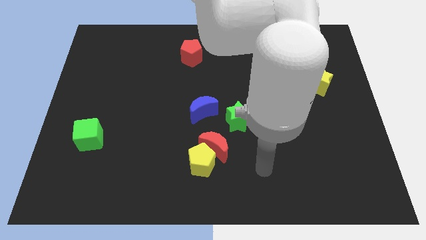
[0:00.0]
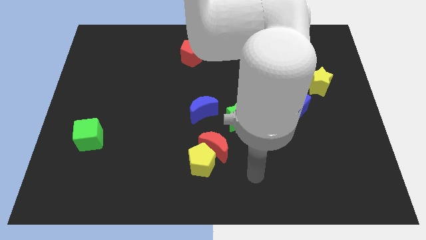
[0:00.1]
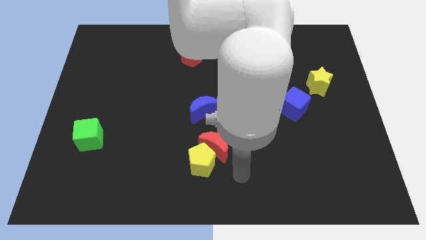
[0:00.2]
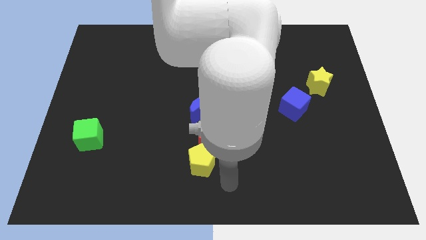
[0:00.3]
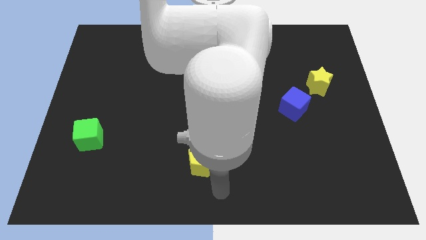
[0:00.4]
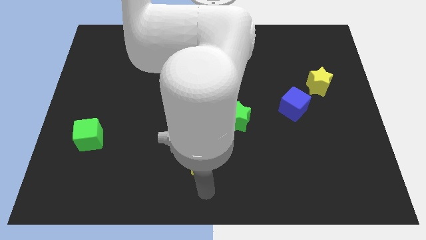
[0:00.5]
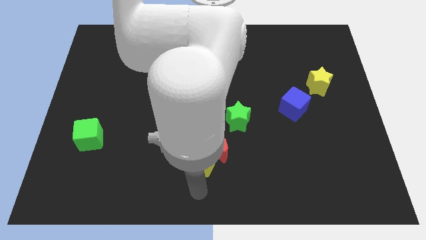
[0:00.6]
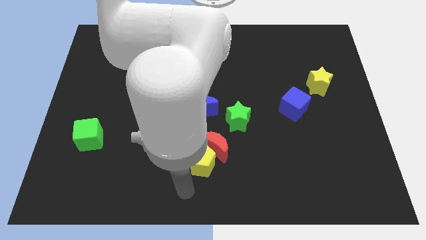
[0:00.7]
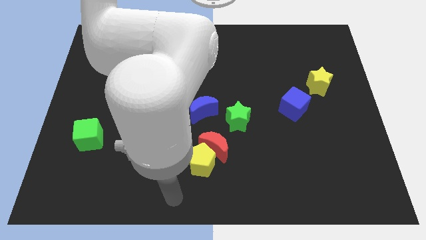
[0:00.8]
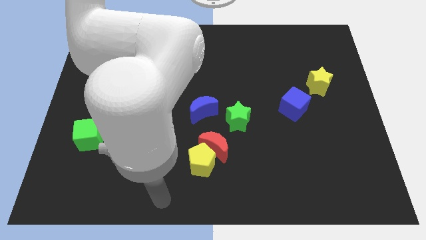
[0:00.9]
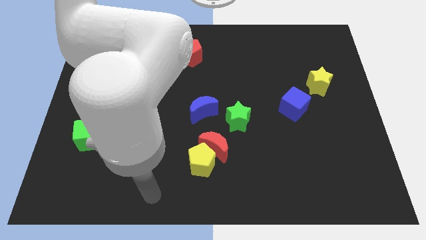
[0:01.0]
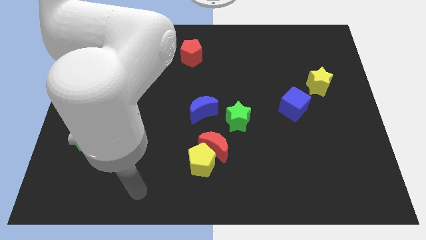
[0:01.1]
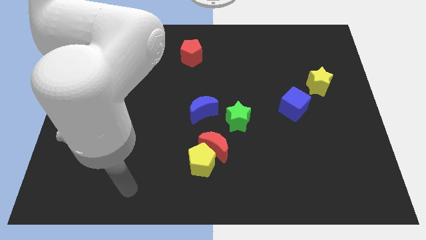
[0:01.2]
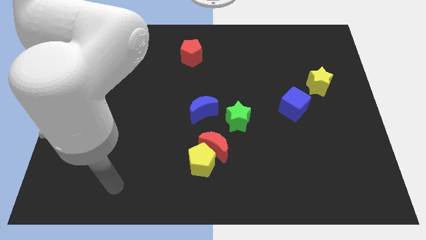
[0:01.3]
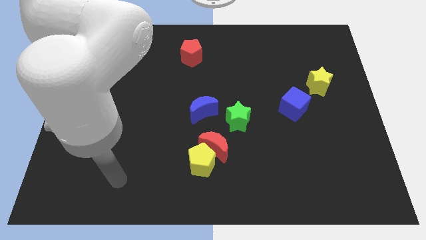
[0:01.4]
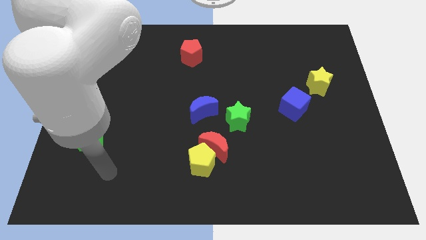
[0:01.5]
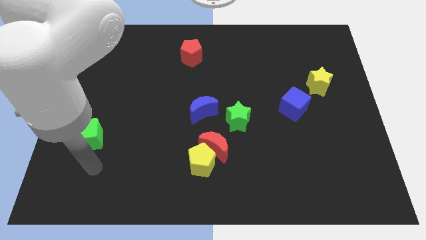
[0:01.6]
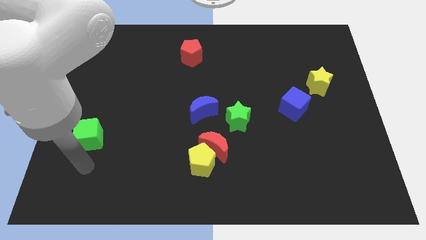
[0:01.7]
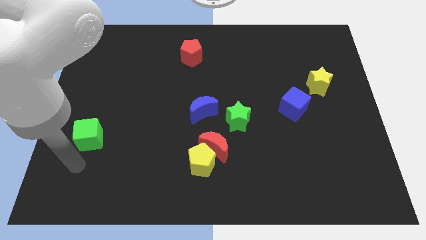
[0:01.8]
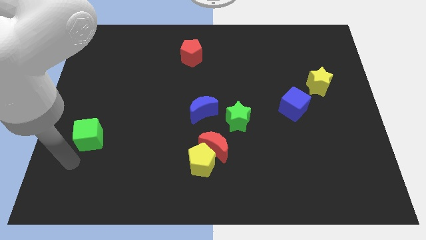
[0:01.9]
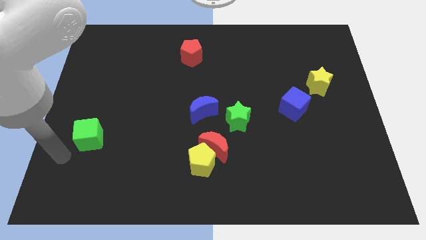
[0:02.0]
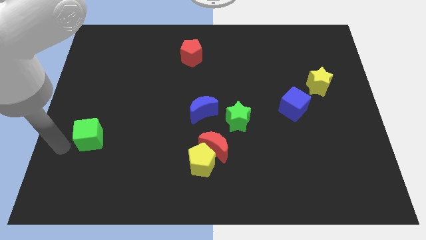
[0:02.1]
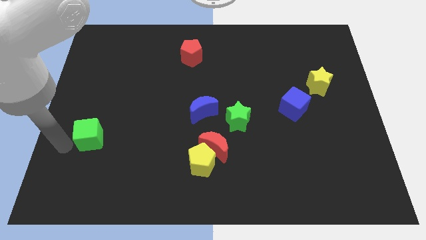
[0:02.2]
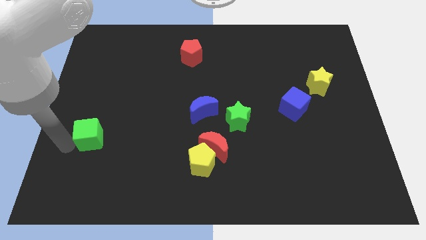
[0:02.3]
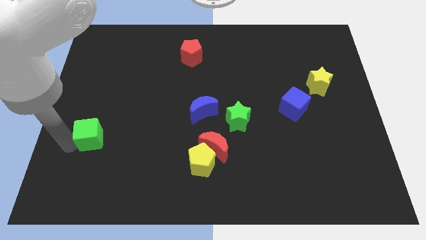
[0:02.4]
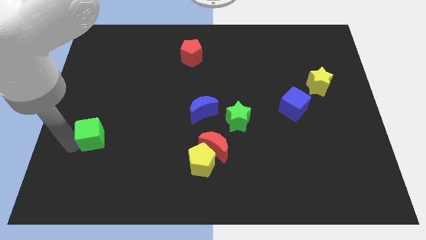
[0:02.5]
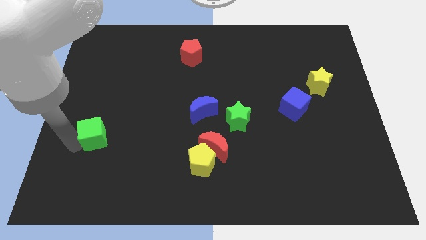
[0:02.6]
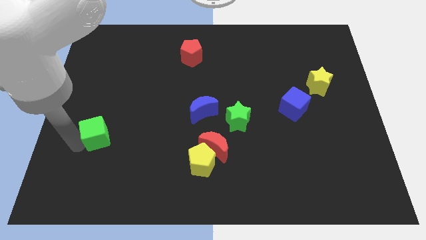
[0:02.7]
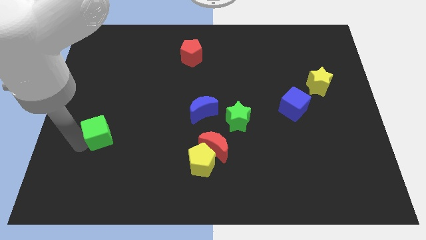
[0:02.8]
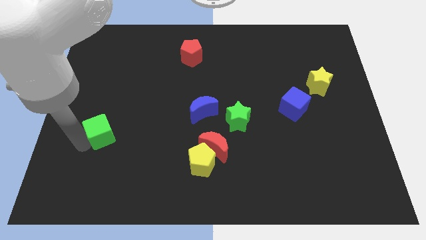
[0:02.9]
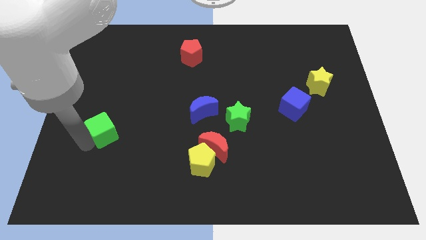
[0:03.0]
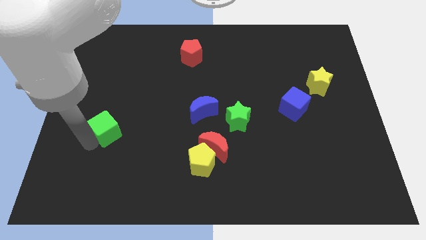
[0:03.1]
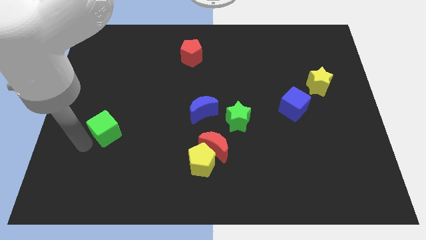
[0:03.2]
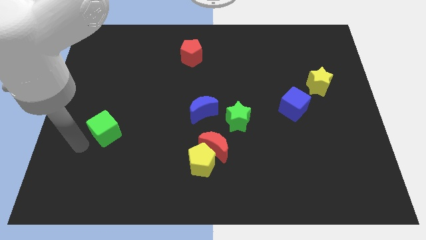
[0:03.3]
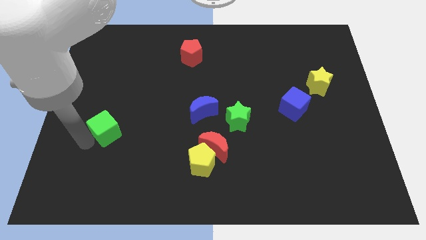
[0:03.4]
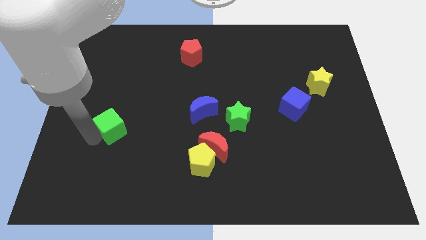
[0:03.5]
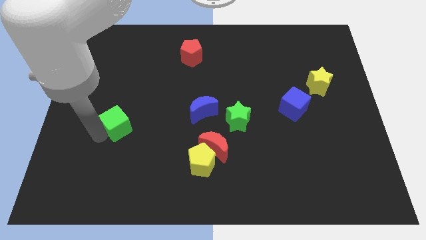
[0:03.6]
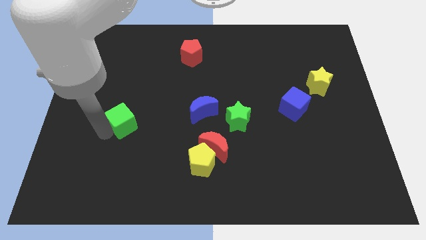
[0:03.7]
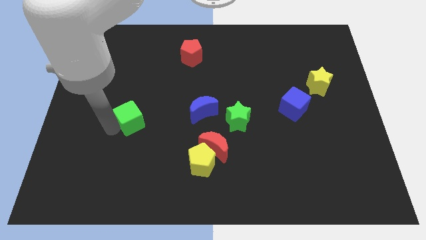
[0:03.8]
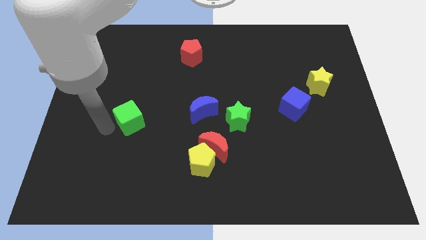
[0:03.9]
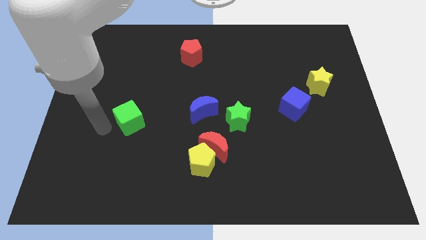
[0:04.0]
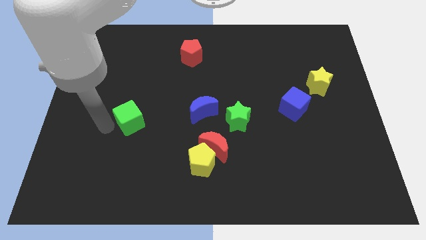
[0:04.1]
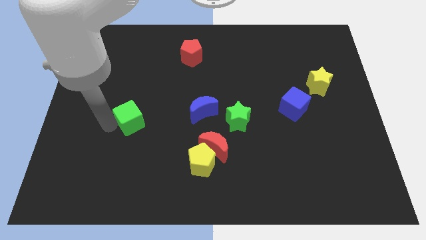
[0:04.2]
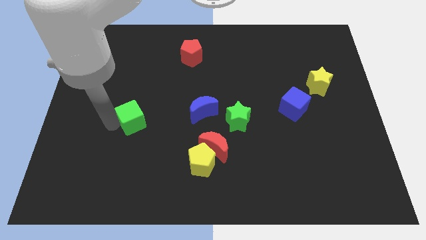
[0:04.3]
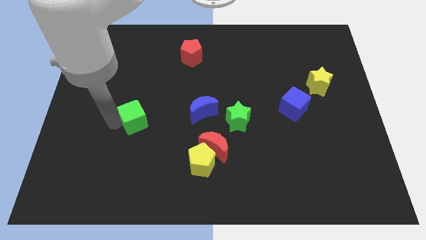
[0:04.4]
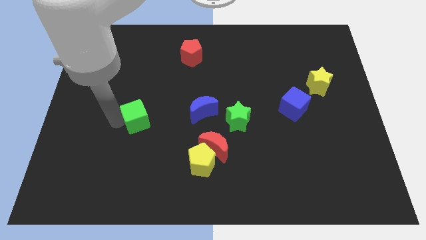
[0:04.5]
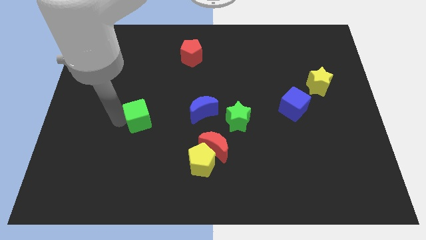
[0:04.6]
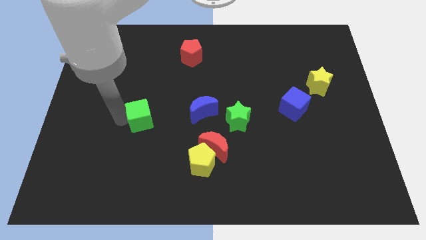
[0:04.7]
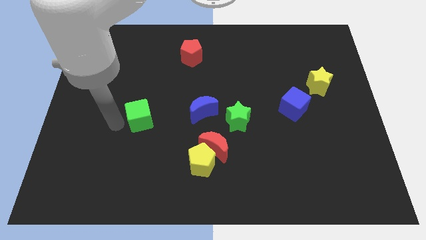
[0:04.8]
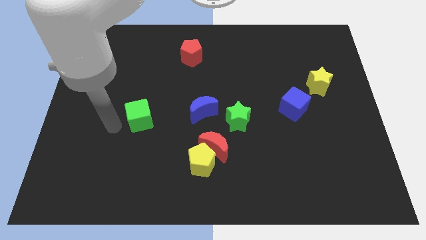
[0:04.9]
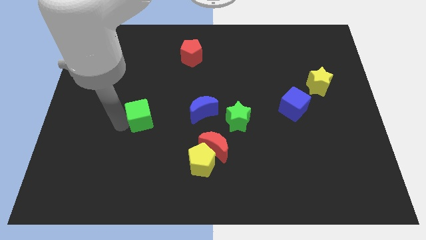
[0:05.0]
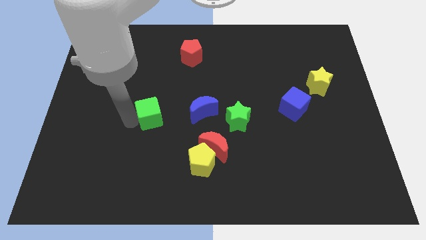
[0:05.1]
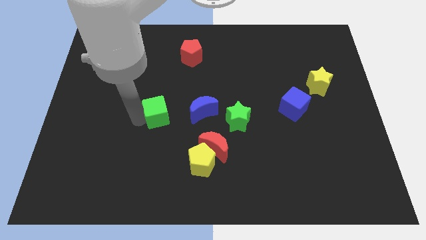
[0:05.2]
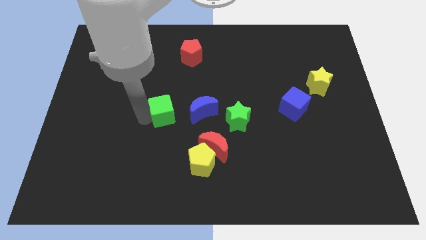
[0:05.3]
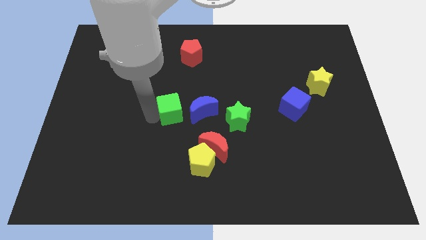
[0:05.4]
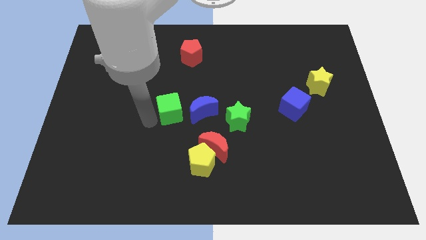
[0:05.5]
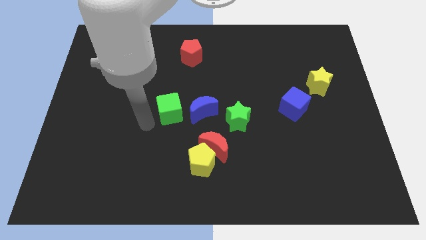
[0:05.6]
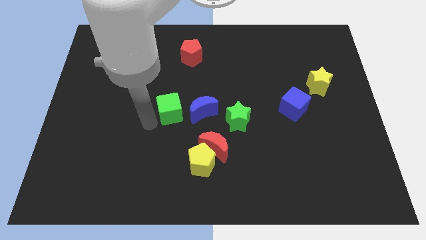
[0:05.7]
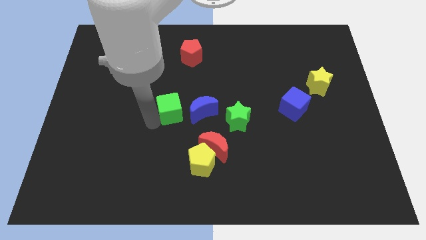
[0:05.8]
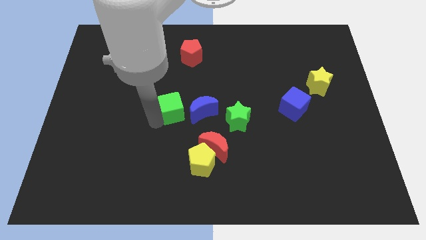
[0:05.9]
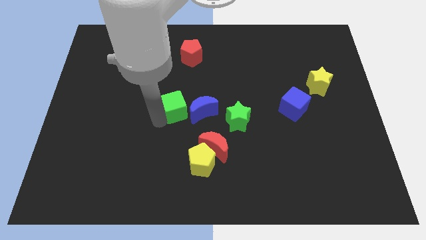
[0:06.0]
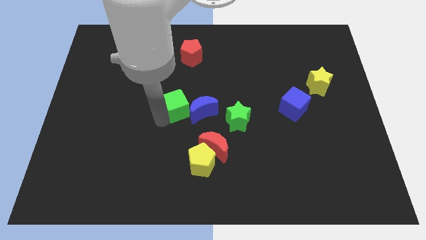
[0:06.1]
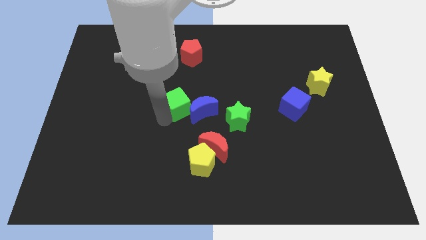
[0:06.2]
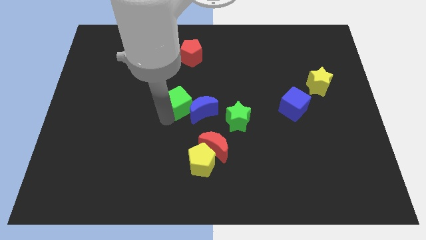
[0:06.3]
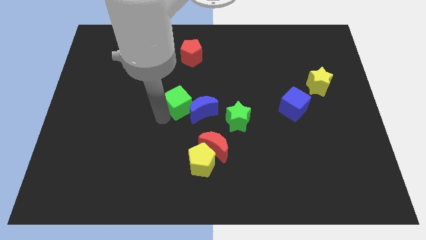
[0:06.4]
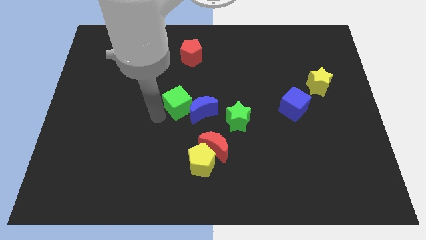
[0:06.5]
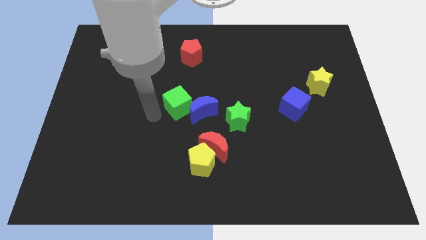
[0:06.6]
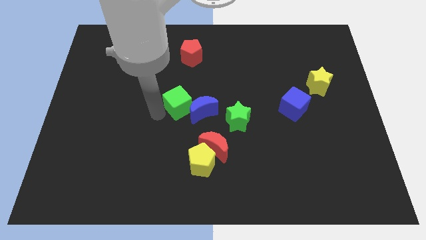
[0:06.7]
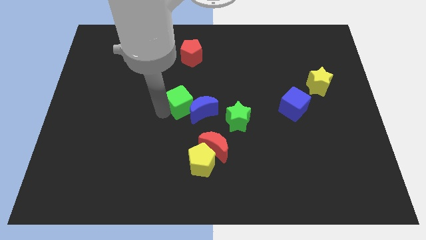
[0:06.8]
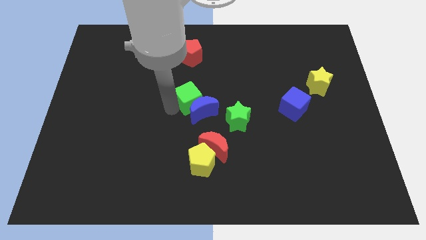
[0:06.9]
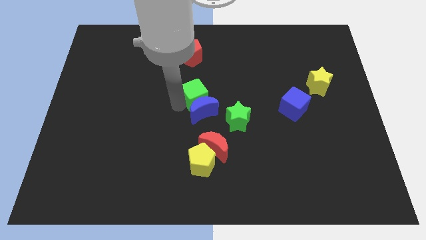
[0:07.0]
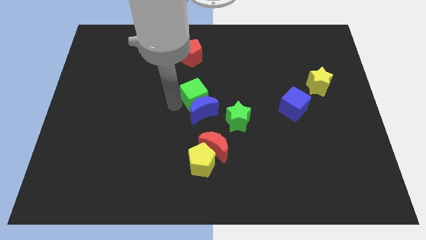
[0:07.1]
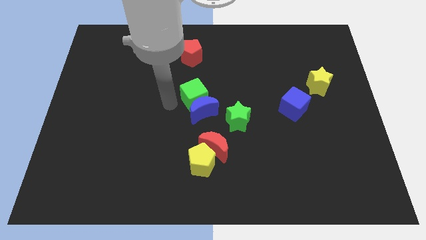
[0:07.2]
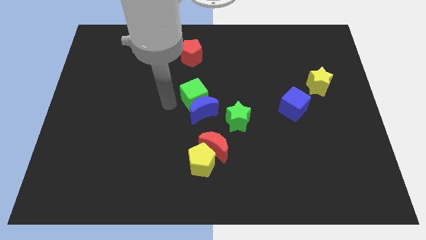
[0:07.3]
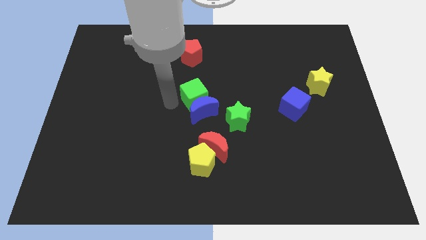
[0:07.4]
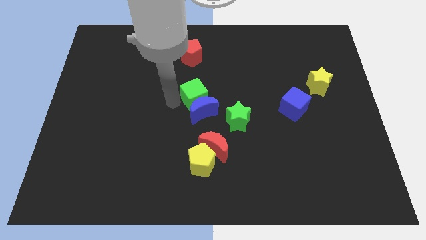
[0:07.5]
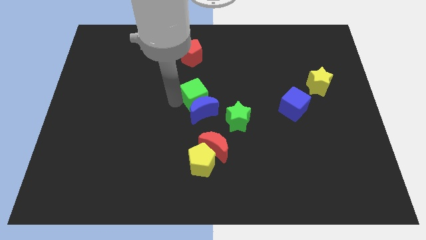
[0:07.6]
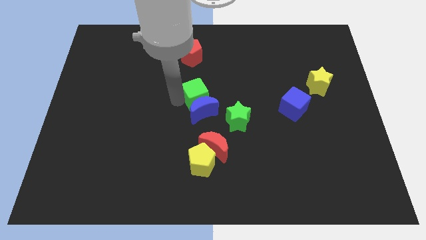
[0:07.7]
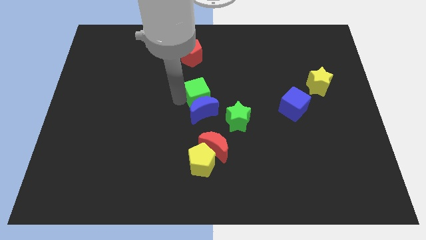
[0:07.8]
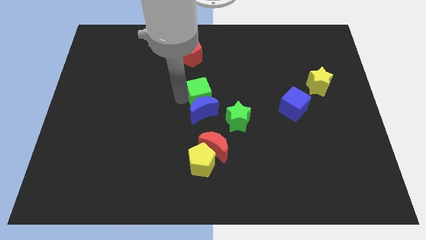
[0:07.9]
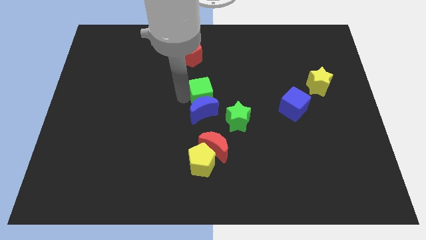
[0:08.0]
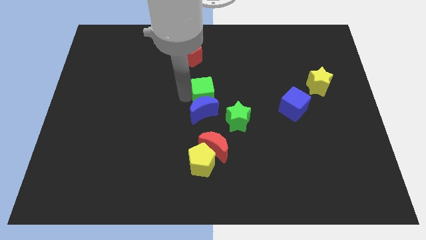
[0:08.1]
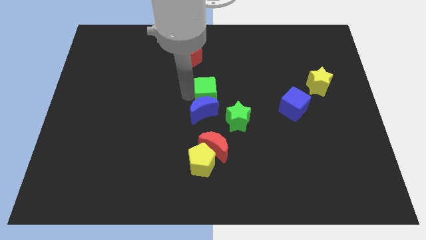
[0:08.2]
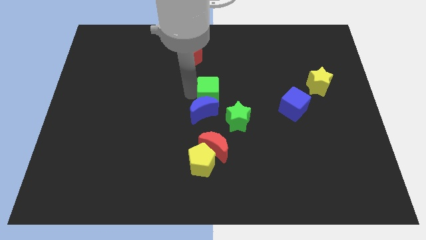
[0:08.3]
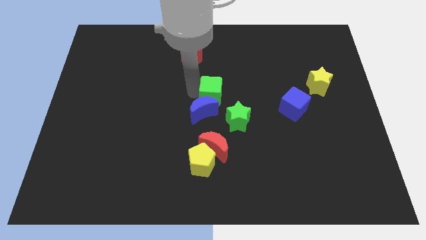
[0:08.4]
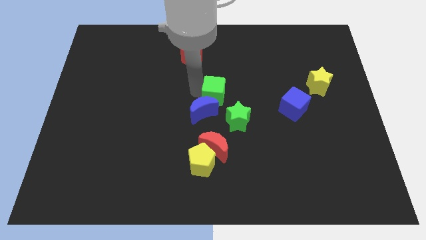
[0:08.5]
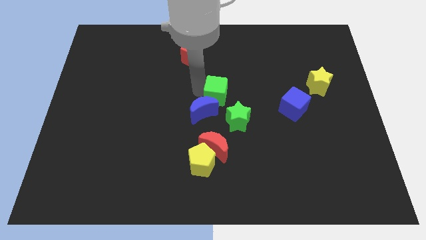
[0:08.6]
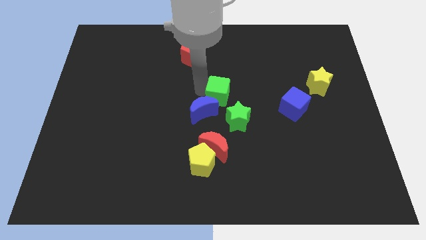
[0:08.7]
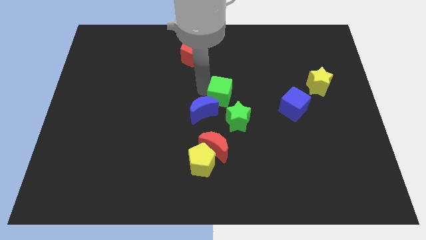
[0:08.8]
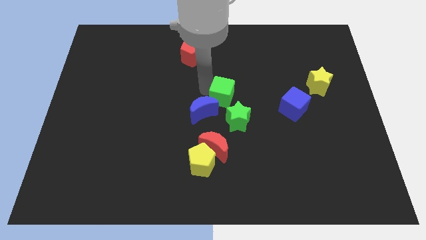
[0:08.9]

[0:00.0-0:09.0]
put the green cube right of the blue moon
